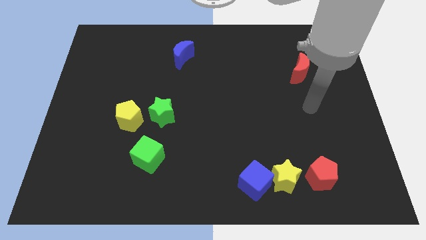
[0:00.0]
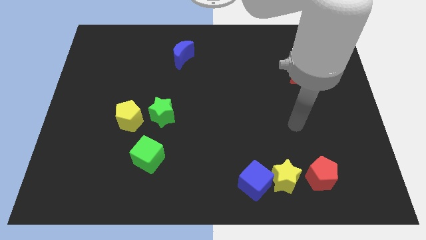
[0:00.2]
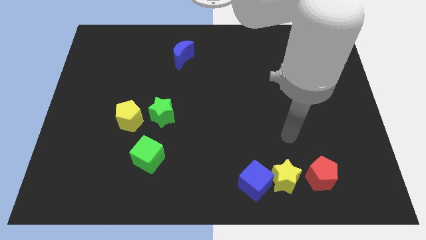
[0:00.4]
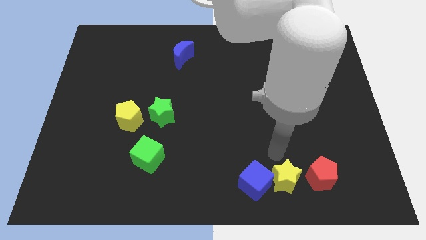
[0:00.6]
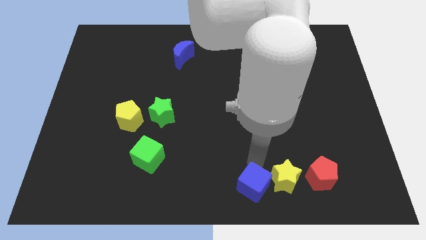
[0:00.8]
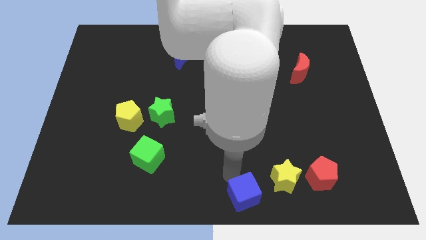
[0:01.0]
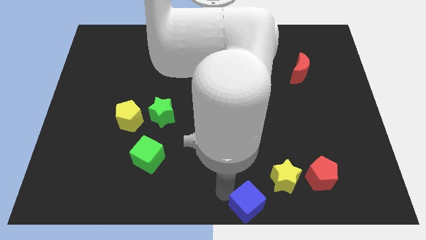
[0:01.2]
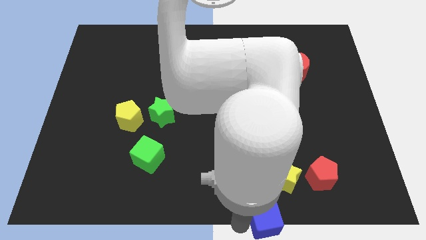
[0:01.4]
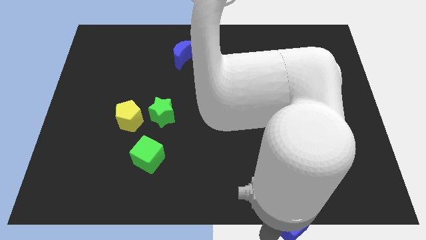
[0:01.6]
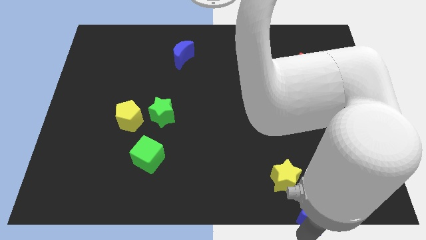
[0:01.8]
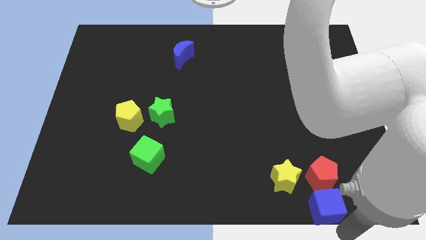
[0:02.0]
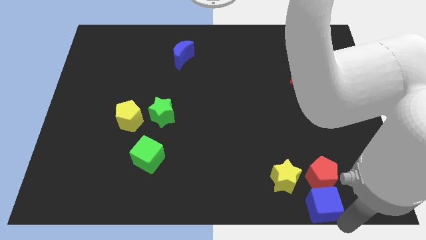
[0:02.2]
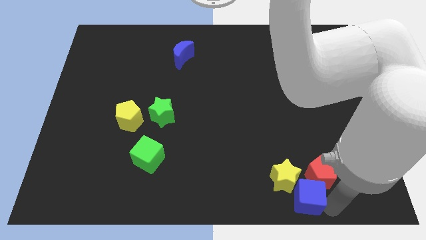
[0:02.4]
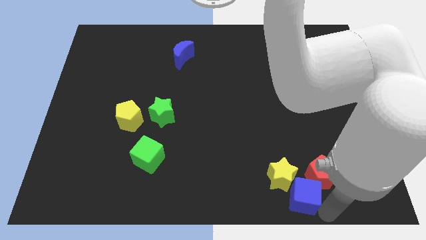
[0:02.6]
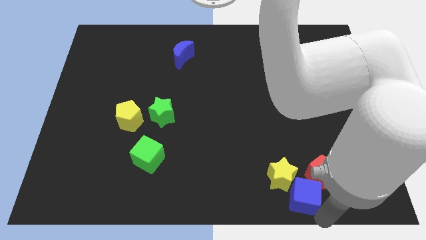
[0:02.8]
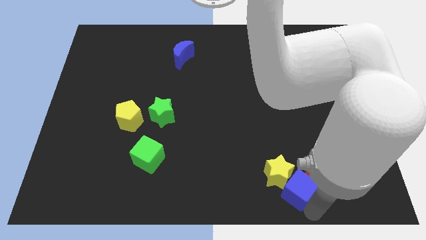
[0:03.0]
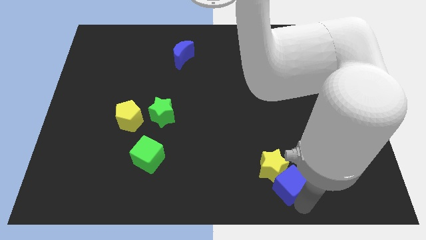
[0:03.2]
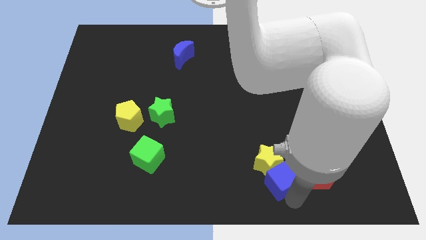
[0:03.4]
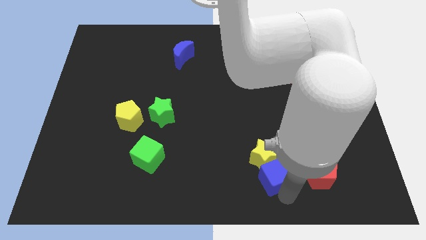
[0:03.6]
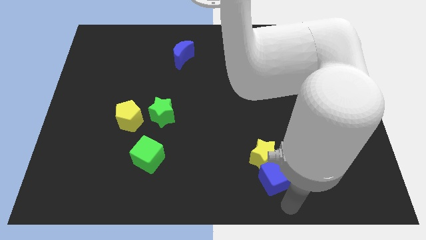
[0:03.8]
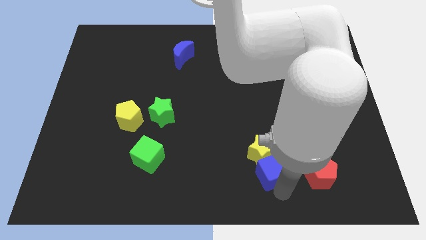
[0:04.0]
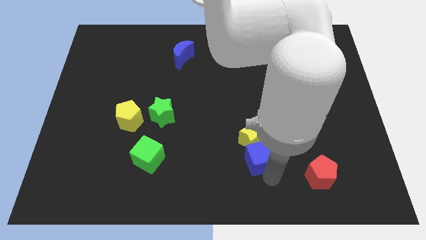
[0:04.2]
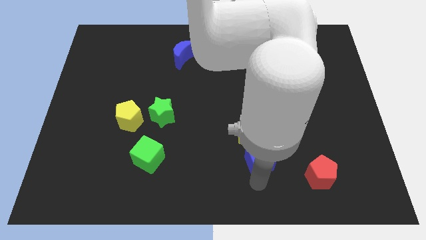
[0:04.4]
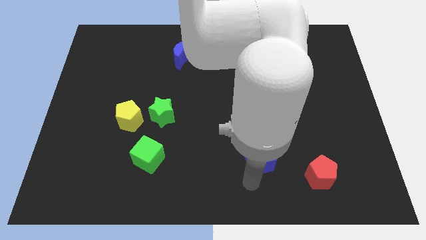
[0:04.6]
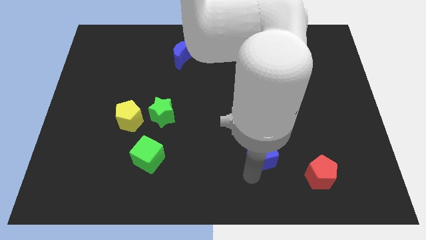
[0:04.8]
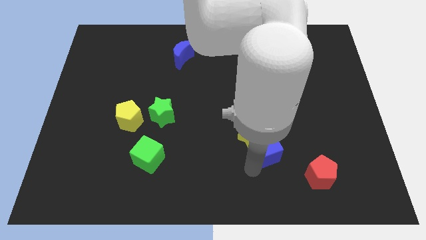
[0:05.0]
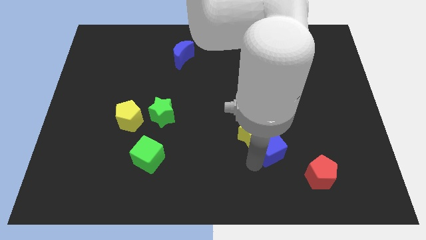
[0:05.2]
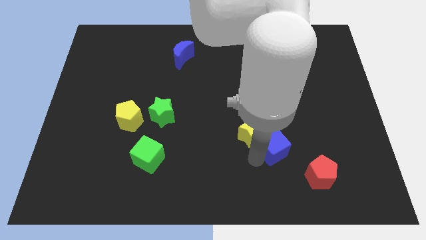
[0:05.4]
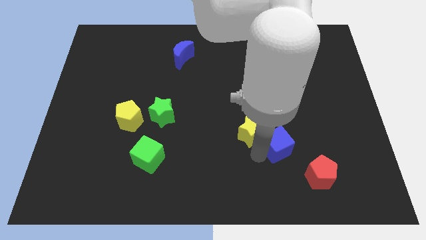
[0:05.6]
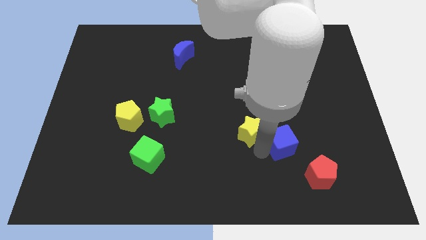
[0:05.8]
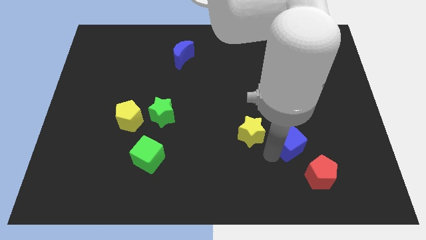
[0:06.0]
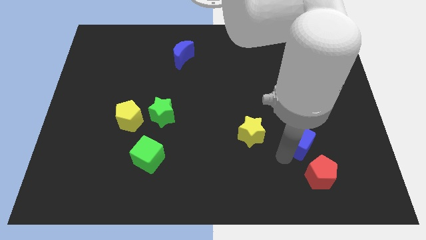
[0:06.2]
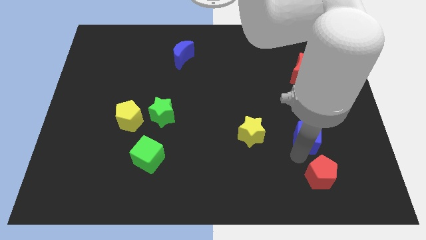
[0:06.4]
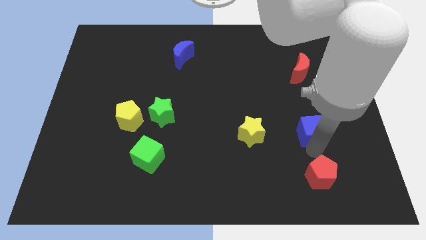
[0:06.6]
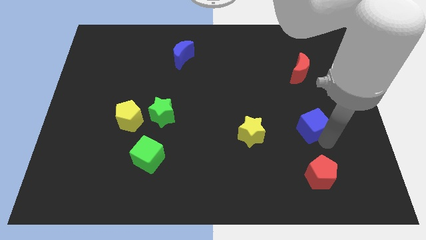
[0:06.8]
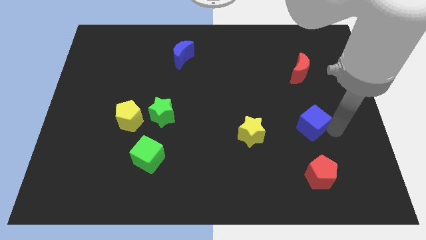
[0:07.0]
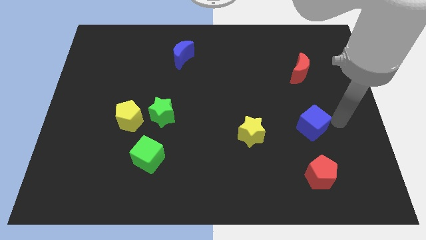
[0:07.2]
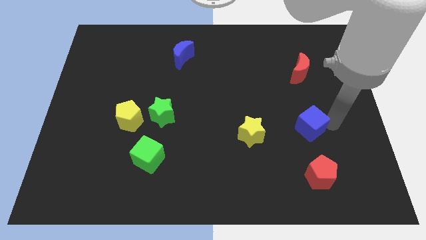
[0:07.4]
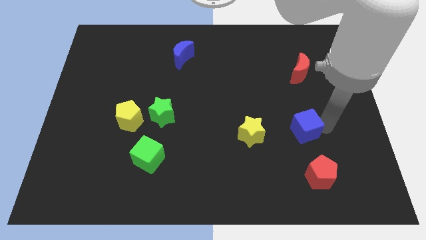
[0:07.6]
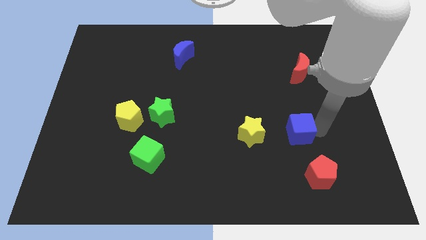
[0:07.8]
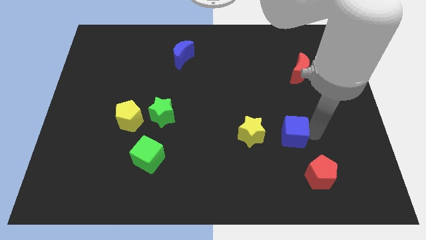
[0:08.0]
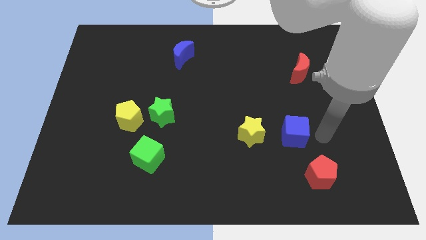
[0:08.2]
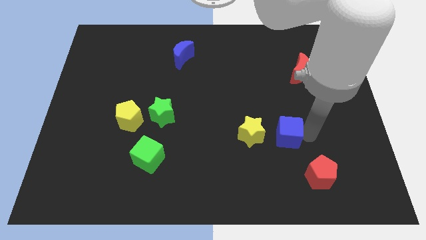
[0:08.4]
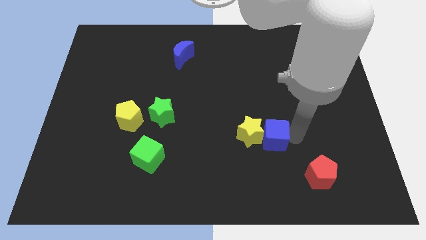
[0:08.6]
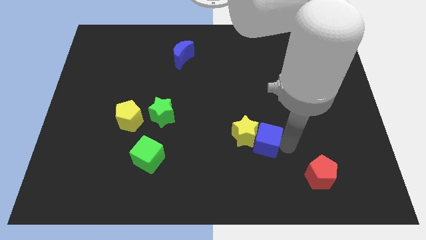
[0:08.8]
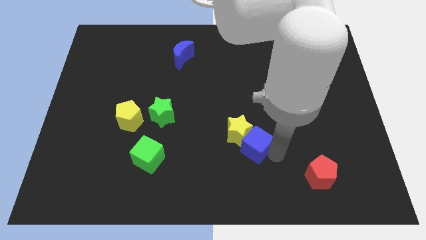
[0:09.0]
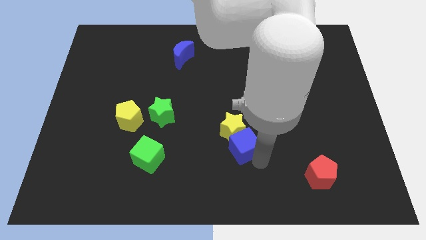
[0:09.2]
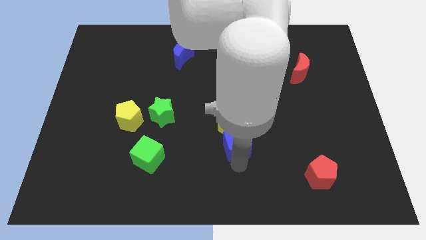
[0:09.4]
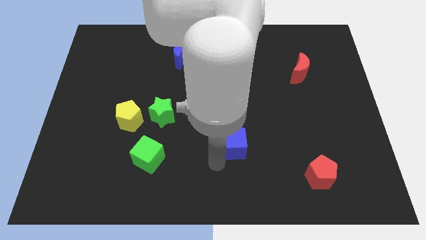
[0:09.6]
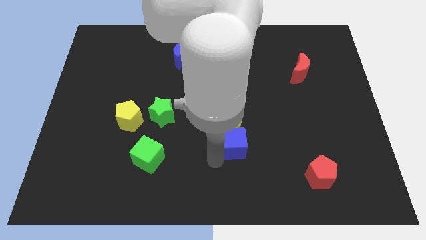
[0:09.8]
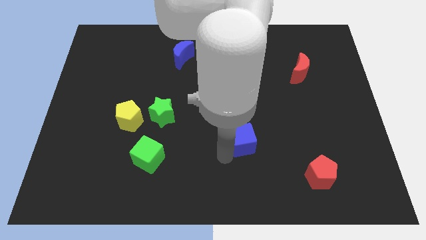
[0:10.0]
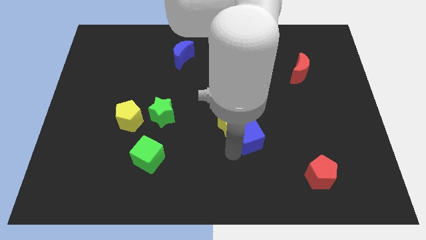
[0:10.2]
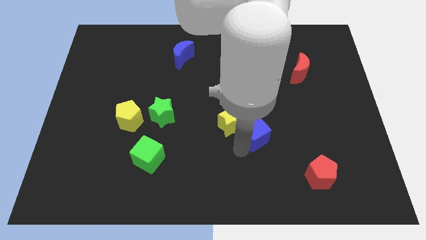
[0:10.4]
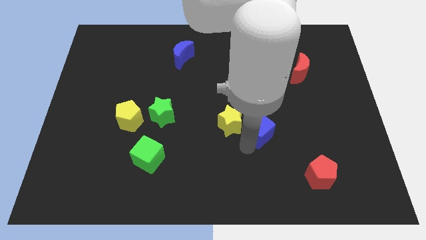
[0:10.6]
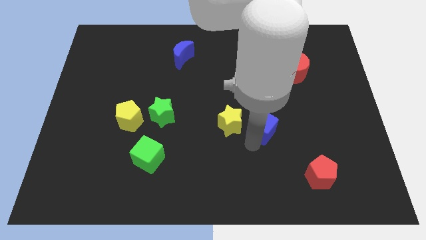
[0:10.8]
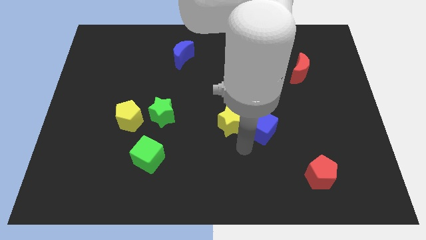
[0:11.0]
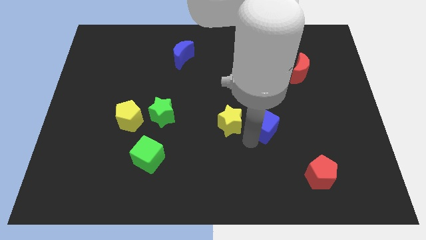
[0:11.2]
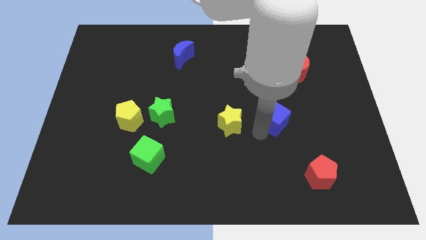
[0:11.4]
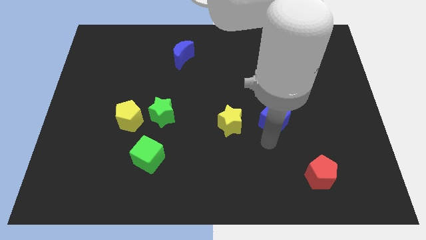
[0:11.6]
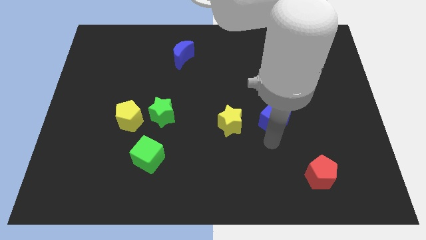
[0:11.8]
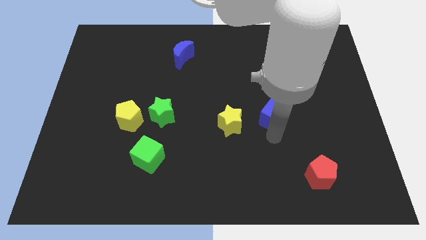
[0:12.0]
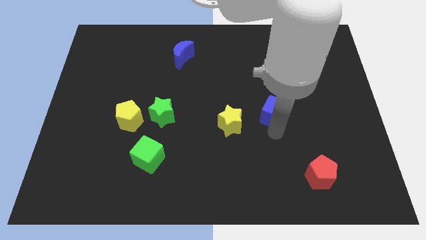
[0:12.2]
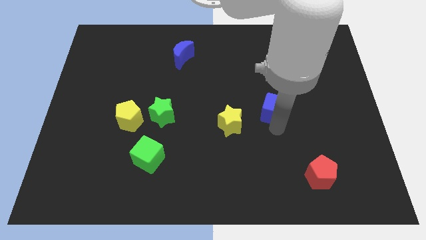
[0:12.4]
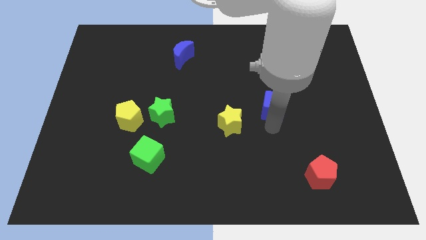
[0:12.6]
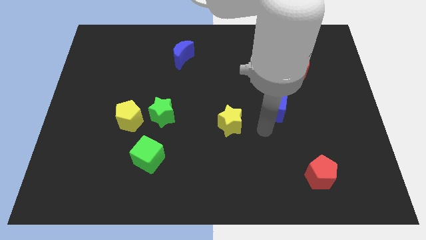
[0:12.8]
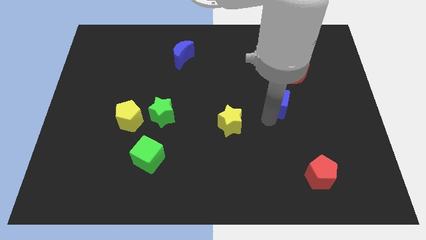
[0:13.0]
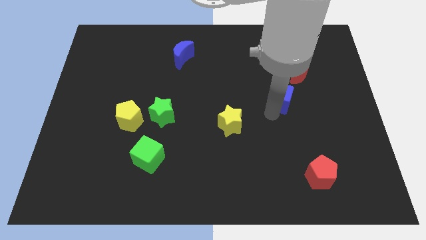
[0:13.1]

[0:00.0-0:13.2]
put the blue cube to the bottom left of the red moon

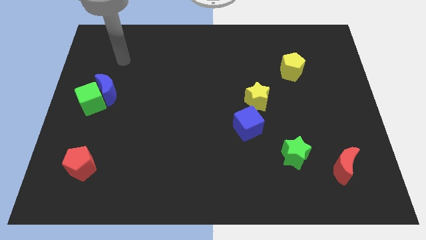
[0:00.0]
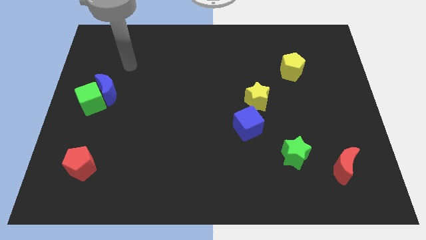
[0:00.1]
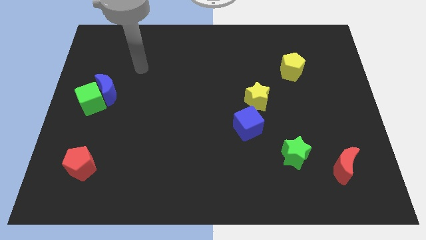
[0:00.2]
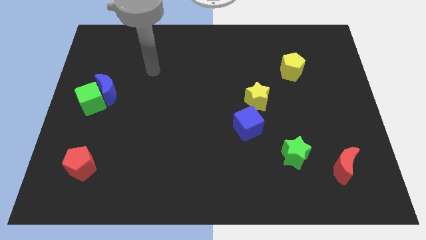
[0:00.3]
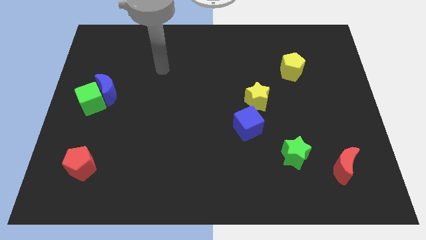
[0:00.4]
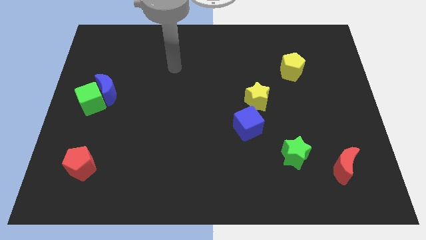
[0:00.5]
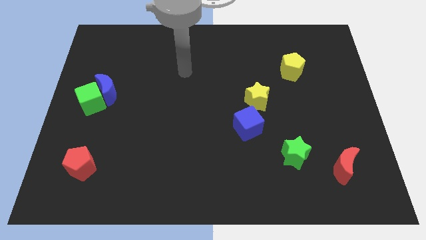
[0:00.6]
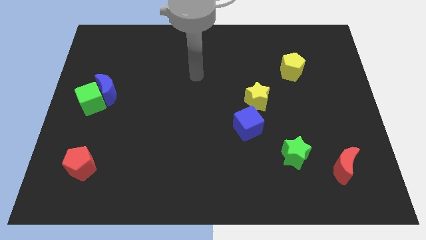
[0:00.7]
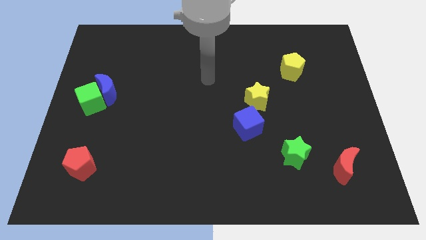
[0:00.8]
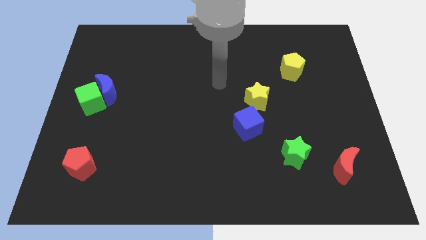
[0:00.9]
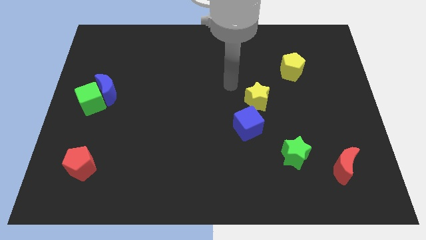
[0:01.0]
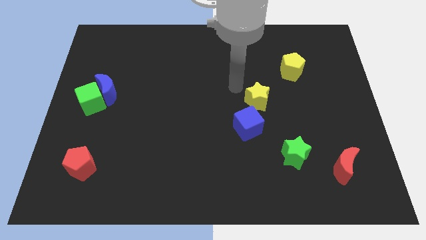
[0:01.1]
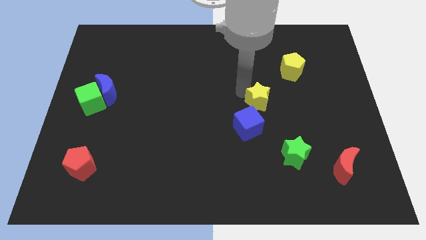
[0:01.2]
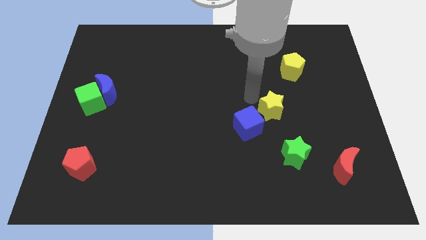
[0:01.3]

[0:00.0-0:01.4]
move the yellow star right of the blue cube
